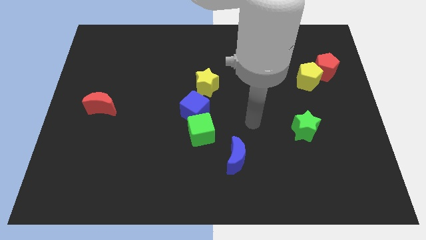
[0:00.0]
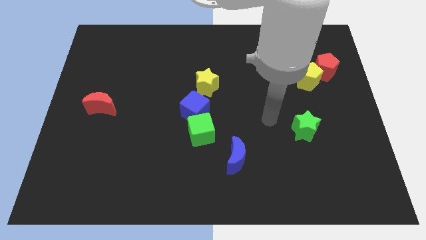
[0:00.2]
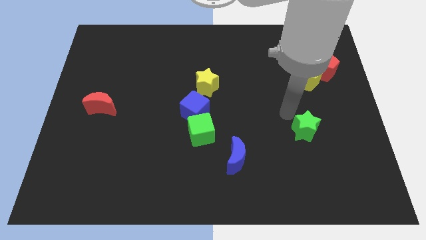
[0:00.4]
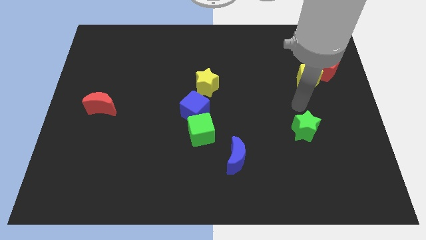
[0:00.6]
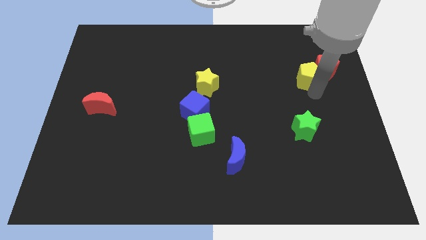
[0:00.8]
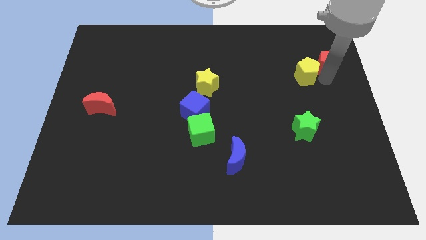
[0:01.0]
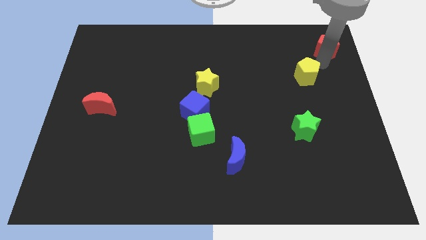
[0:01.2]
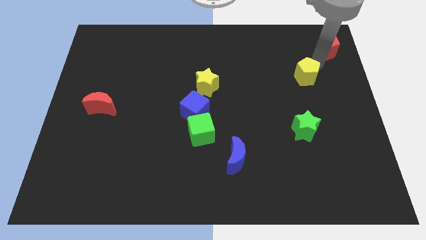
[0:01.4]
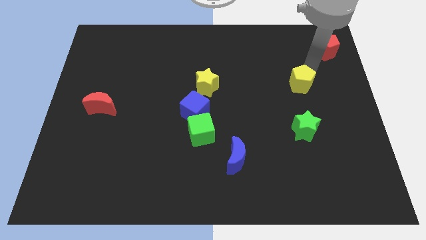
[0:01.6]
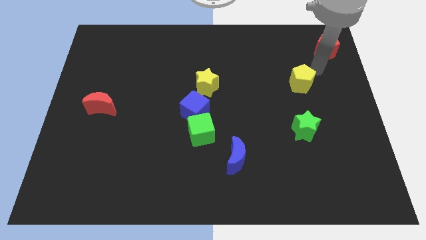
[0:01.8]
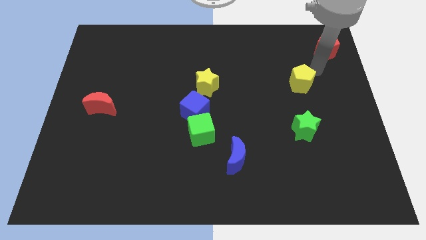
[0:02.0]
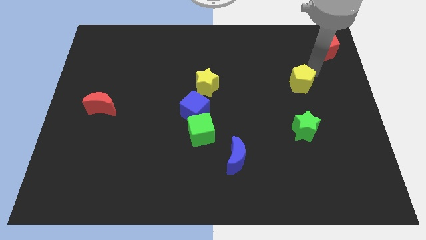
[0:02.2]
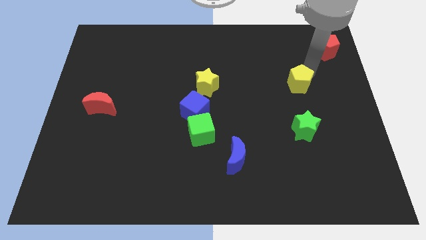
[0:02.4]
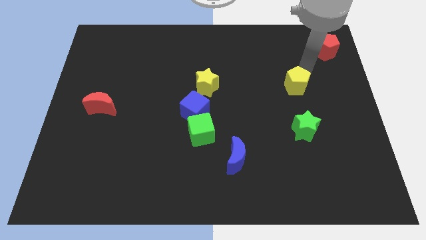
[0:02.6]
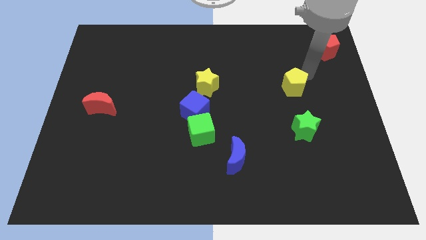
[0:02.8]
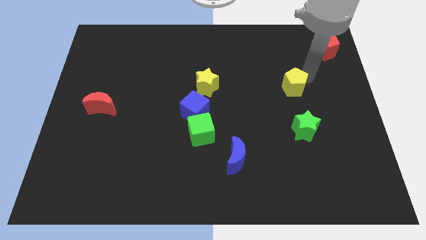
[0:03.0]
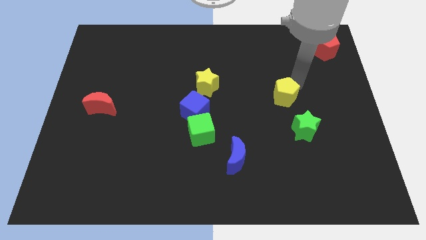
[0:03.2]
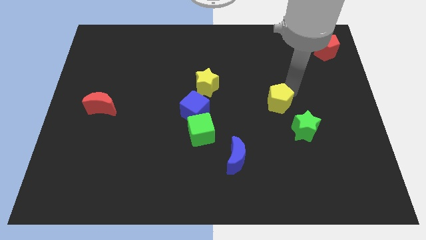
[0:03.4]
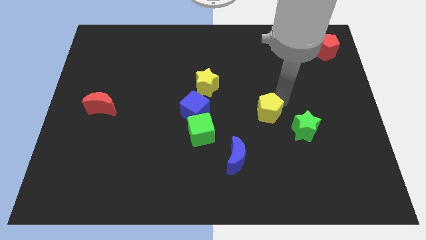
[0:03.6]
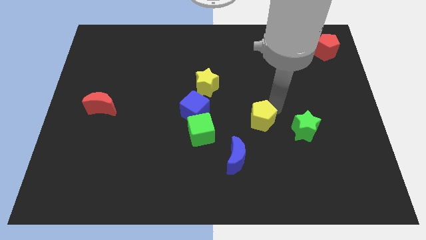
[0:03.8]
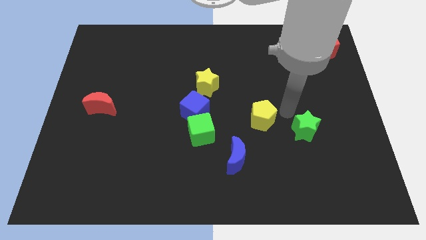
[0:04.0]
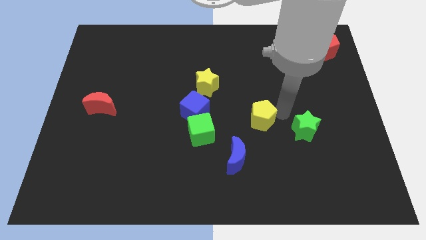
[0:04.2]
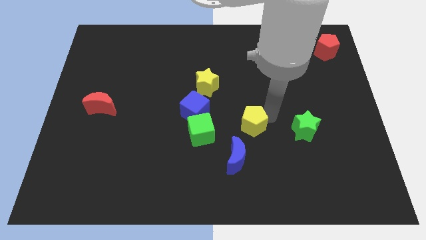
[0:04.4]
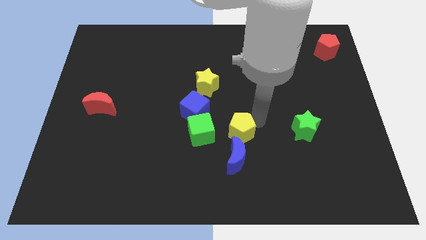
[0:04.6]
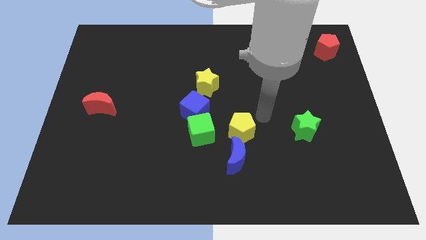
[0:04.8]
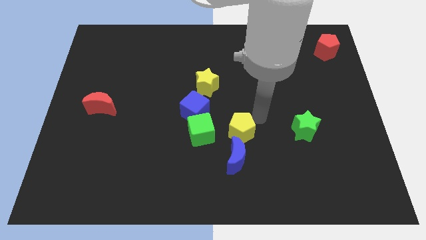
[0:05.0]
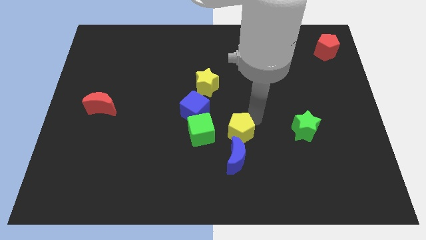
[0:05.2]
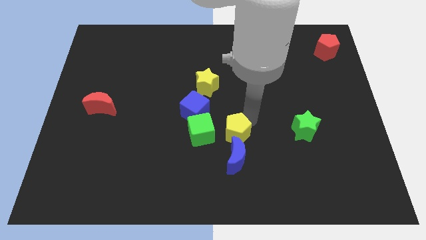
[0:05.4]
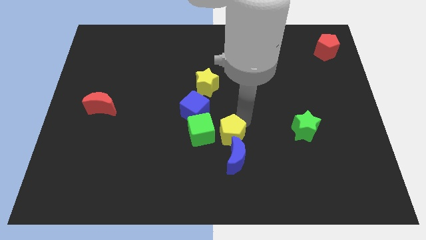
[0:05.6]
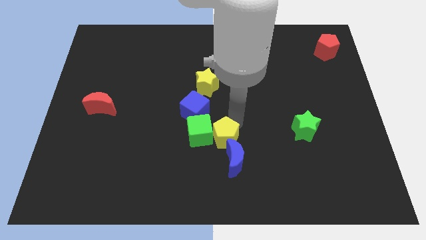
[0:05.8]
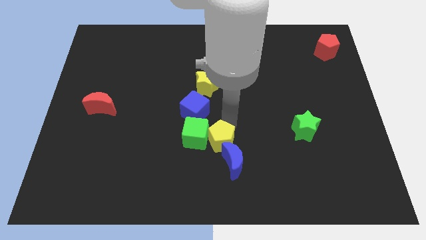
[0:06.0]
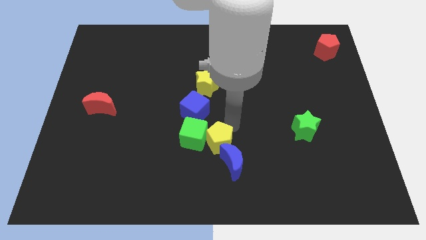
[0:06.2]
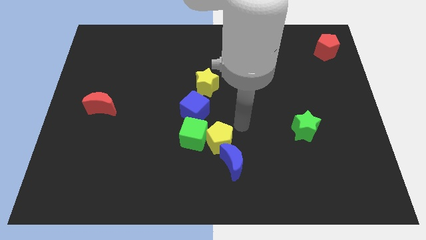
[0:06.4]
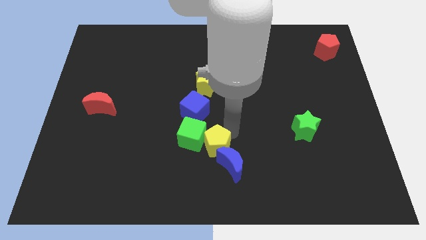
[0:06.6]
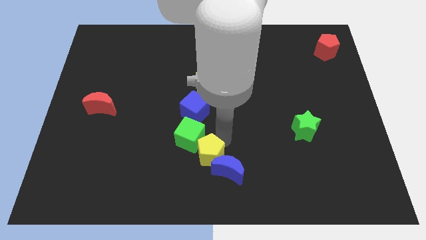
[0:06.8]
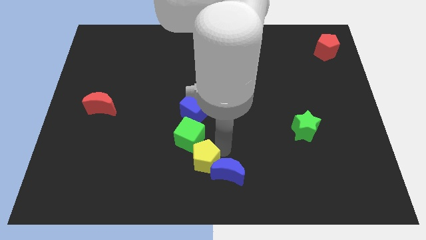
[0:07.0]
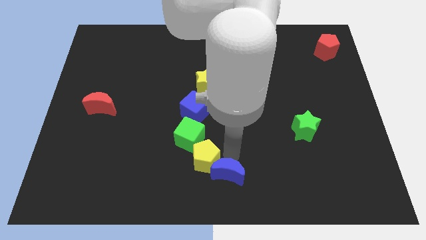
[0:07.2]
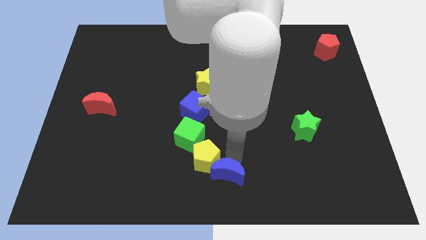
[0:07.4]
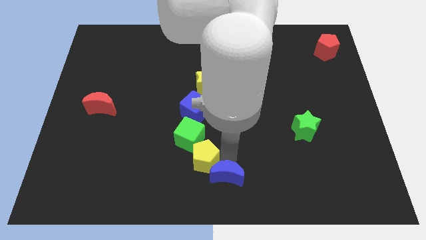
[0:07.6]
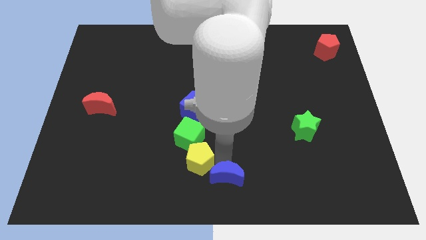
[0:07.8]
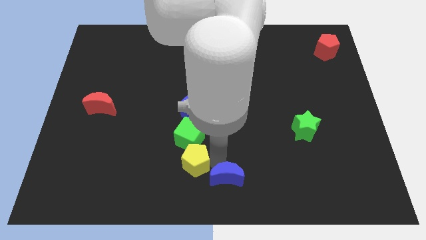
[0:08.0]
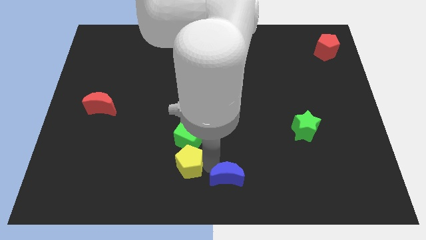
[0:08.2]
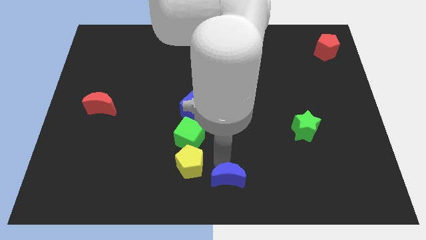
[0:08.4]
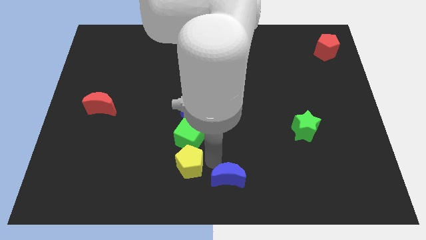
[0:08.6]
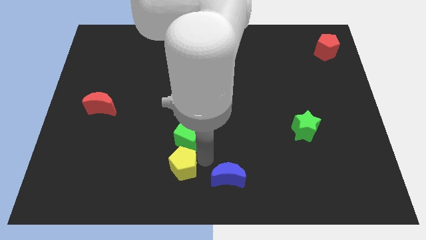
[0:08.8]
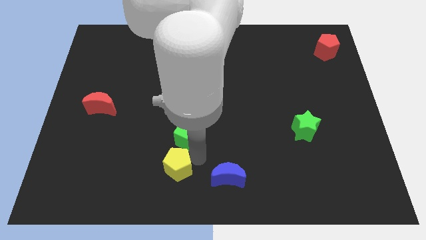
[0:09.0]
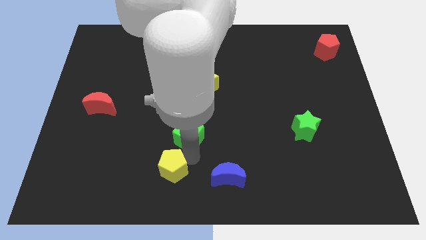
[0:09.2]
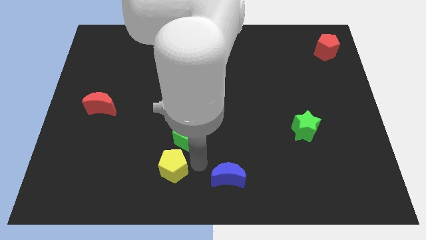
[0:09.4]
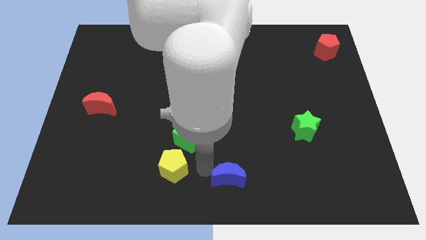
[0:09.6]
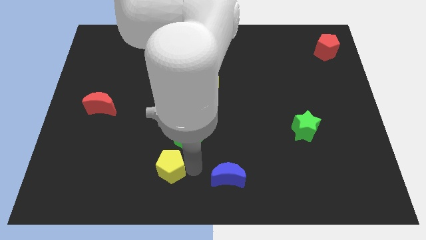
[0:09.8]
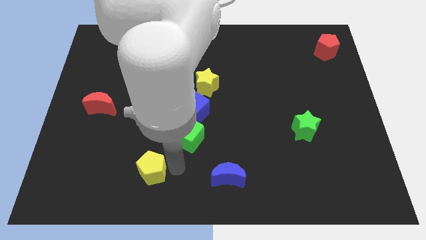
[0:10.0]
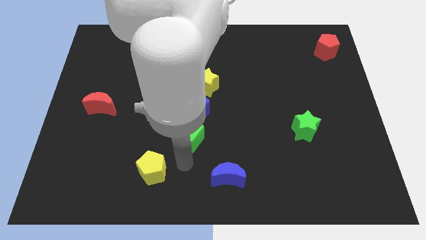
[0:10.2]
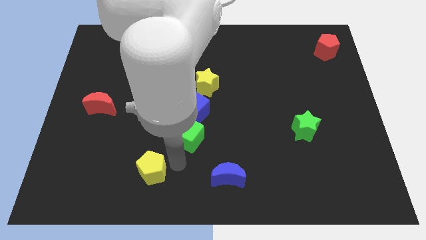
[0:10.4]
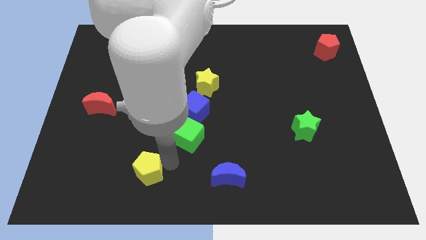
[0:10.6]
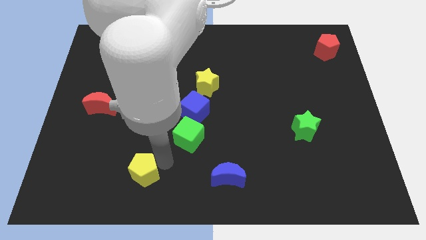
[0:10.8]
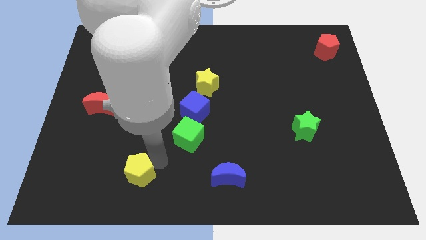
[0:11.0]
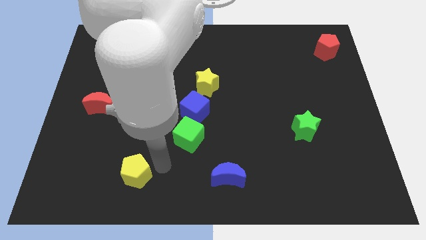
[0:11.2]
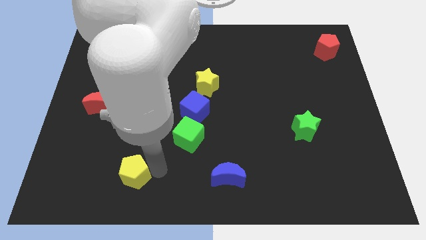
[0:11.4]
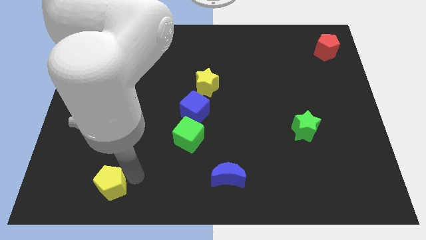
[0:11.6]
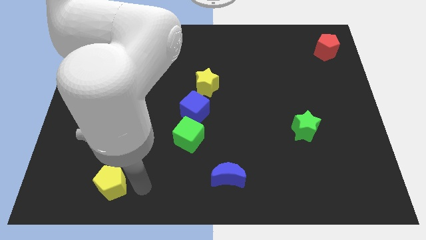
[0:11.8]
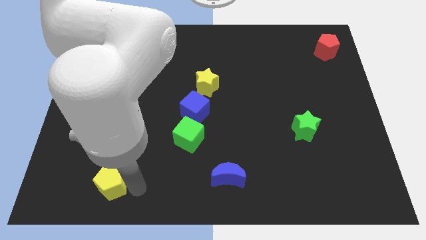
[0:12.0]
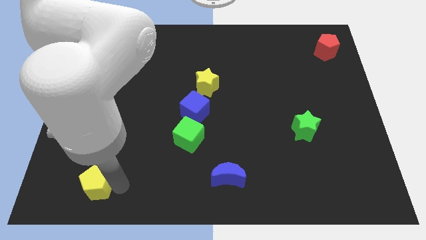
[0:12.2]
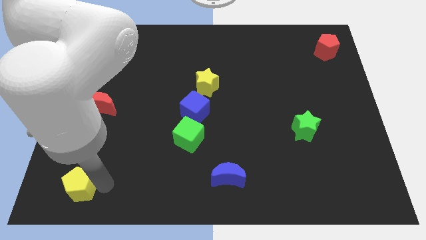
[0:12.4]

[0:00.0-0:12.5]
push the yellow pentagon to the lower left corner

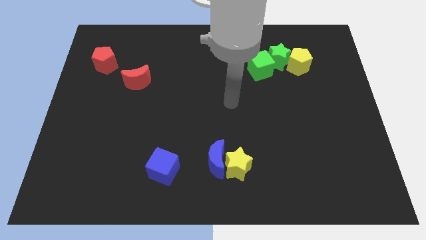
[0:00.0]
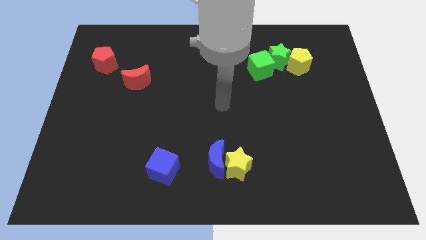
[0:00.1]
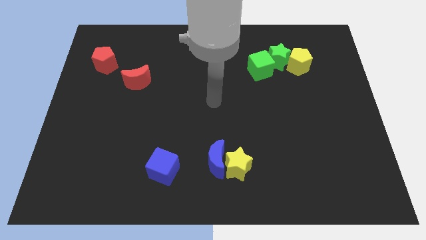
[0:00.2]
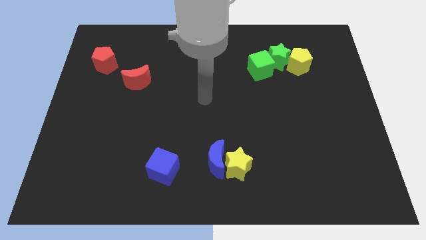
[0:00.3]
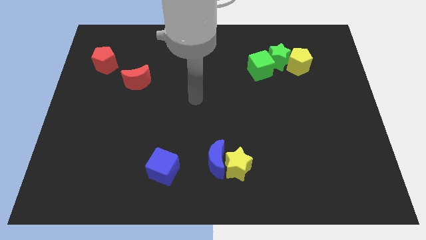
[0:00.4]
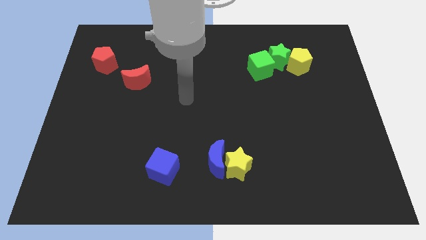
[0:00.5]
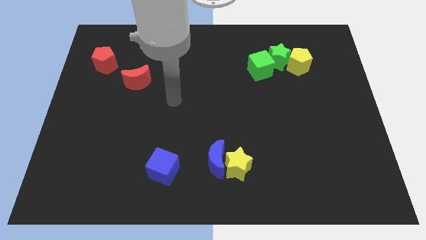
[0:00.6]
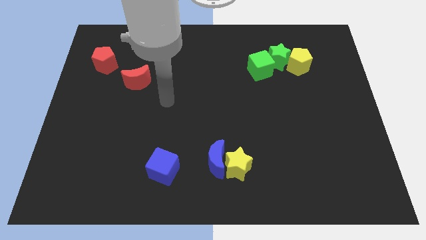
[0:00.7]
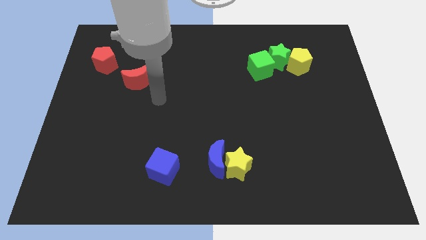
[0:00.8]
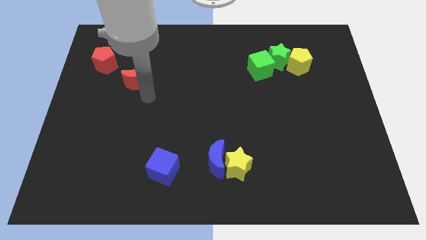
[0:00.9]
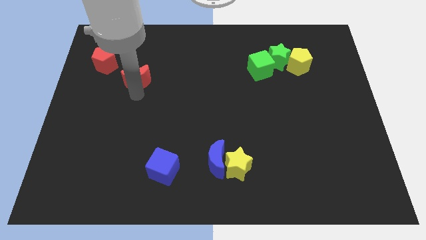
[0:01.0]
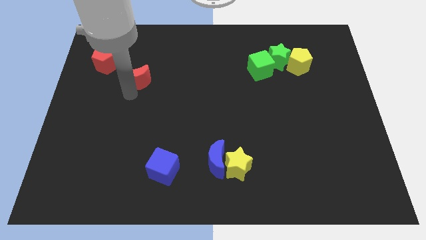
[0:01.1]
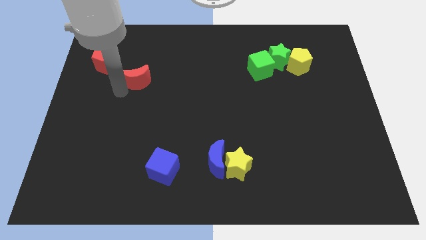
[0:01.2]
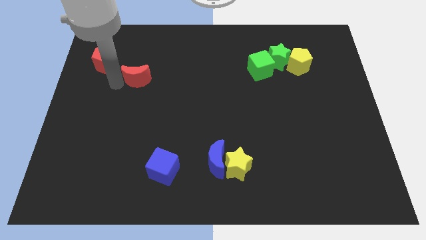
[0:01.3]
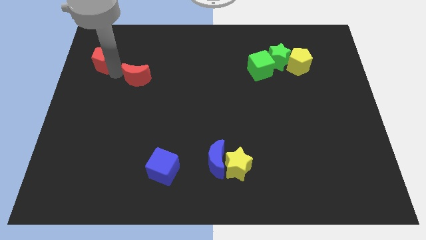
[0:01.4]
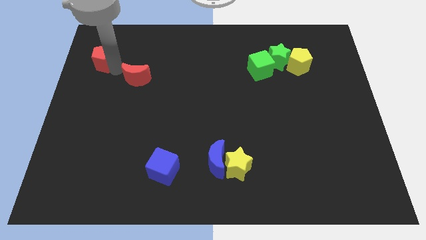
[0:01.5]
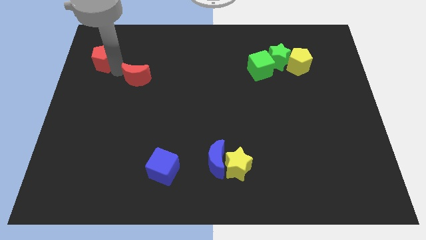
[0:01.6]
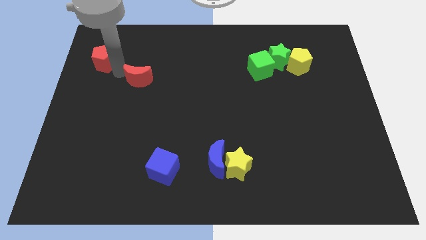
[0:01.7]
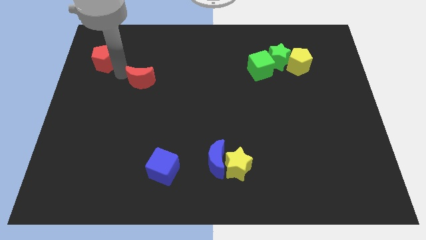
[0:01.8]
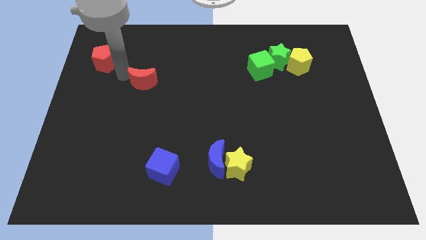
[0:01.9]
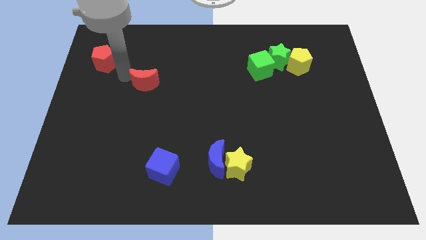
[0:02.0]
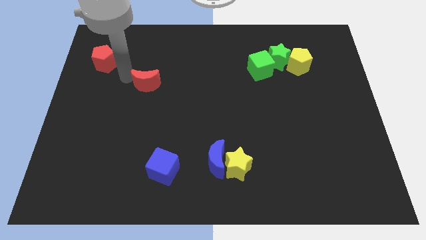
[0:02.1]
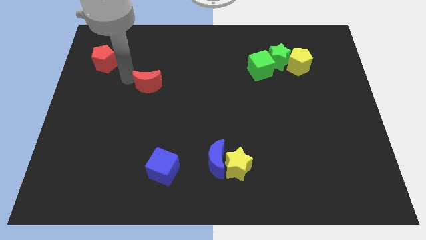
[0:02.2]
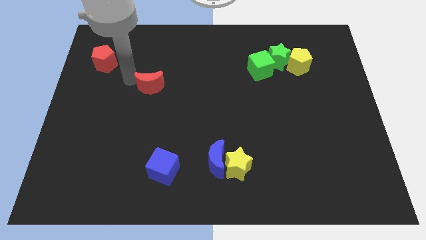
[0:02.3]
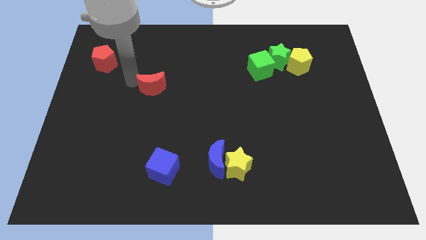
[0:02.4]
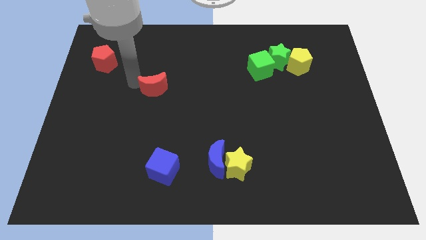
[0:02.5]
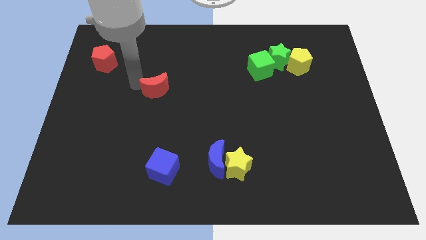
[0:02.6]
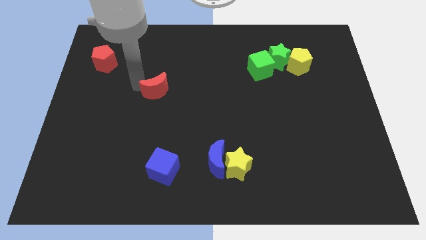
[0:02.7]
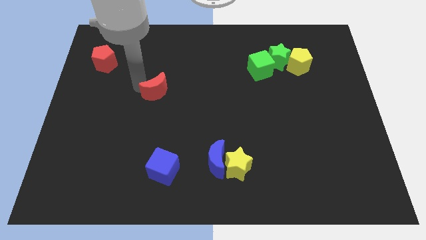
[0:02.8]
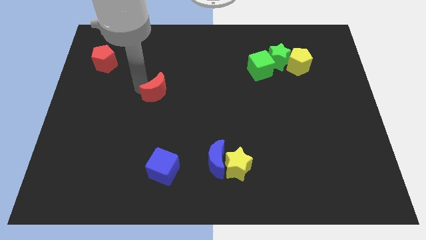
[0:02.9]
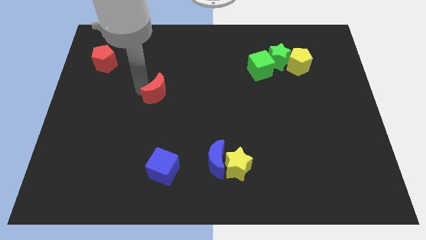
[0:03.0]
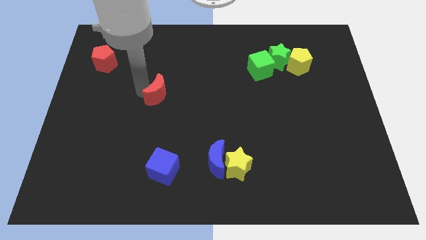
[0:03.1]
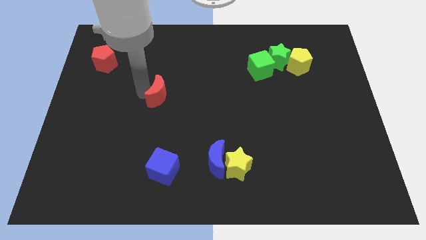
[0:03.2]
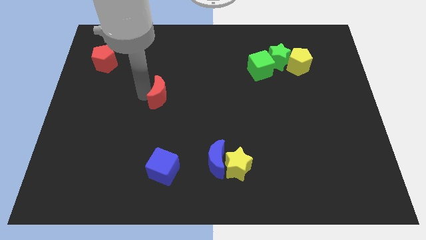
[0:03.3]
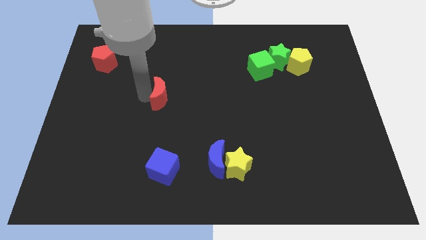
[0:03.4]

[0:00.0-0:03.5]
put the red moon to the middle
